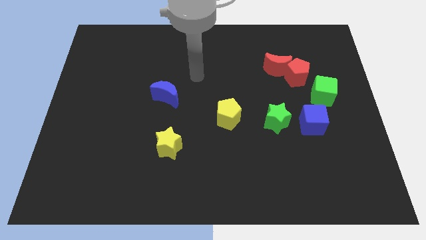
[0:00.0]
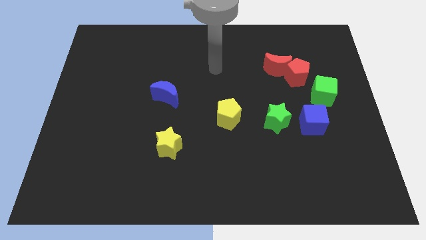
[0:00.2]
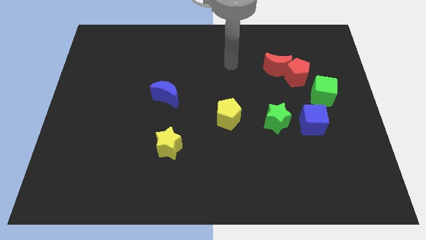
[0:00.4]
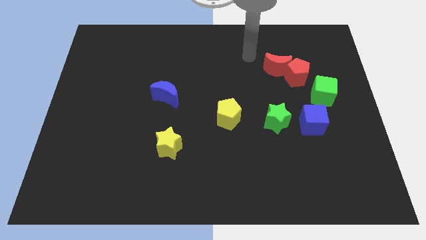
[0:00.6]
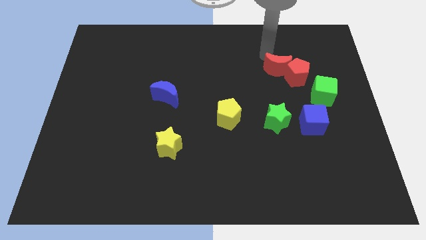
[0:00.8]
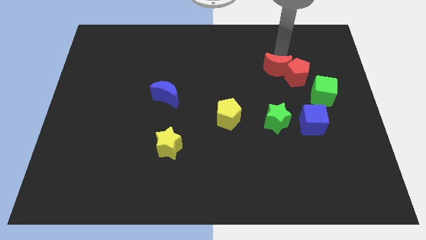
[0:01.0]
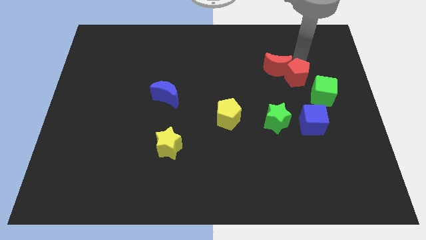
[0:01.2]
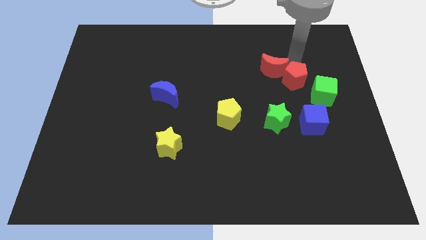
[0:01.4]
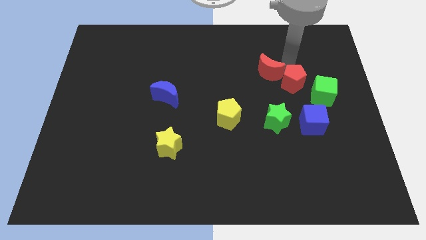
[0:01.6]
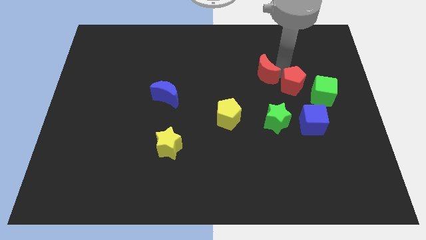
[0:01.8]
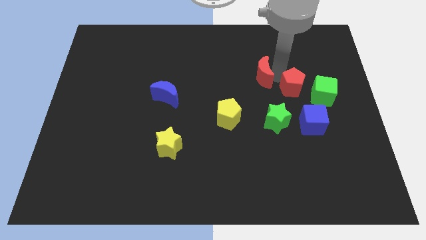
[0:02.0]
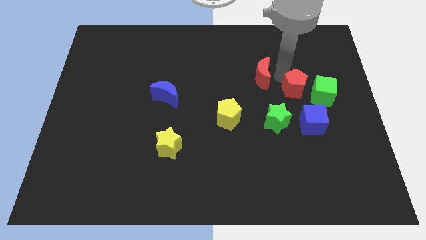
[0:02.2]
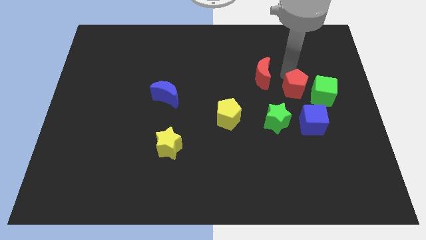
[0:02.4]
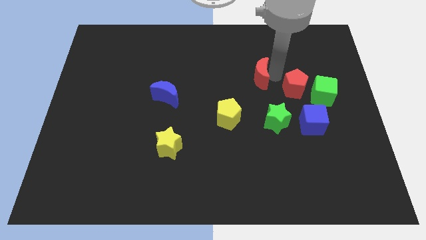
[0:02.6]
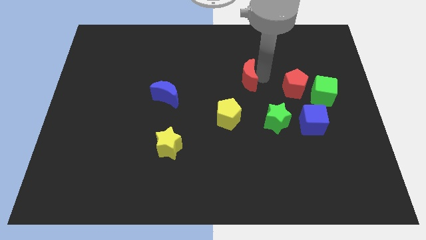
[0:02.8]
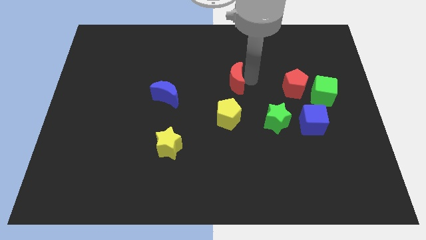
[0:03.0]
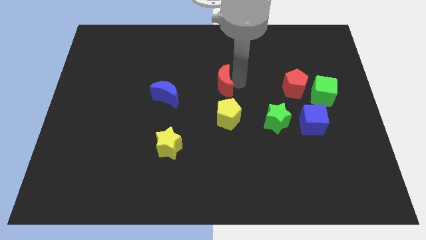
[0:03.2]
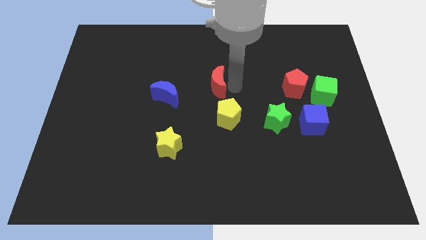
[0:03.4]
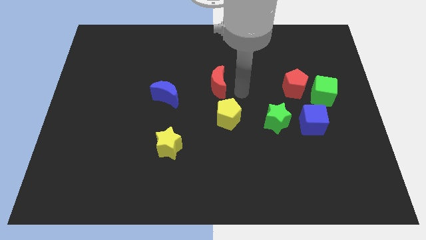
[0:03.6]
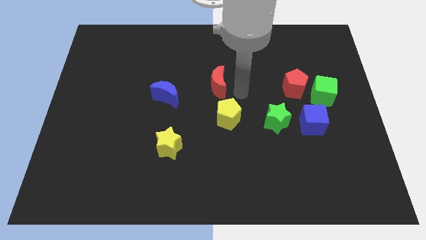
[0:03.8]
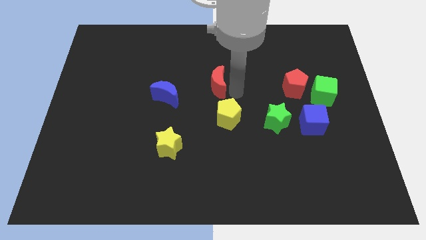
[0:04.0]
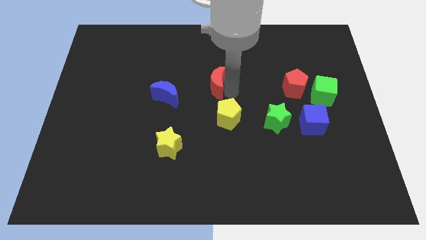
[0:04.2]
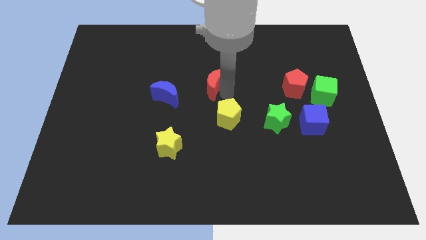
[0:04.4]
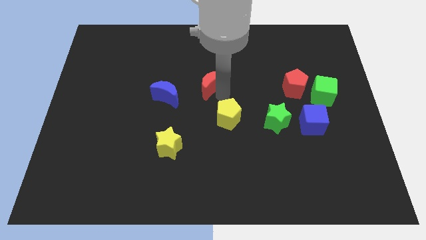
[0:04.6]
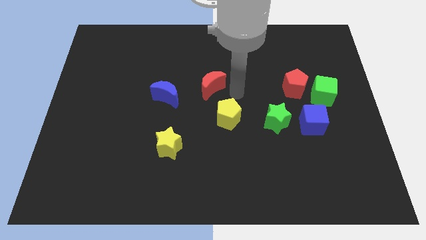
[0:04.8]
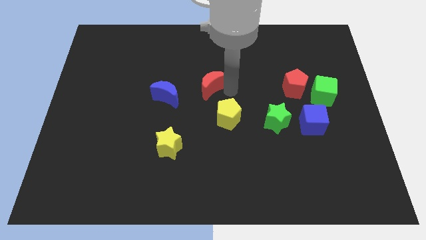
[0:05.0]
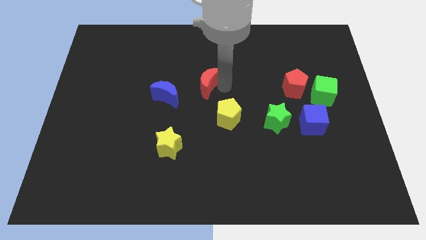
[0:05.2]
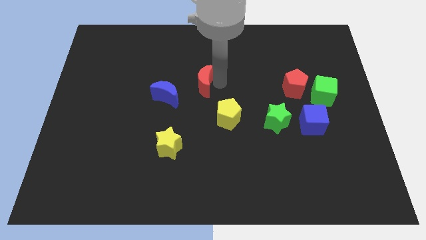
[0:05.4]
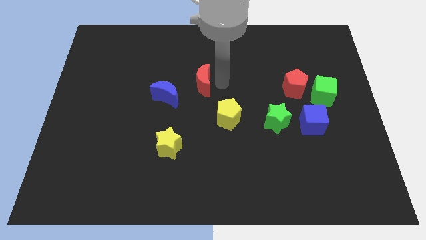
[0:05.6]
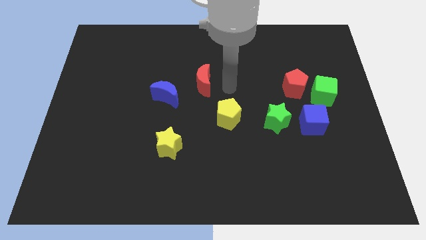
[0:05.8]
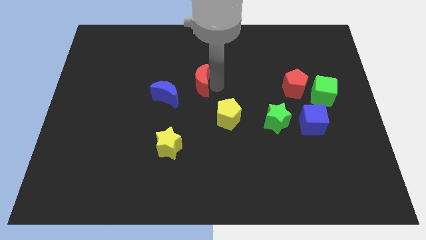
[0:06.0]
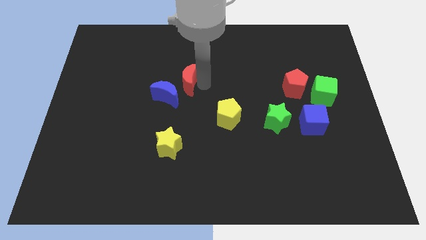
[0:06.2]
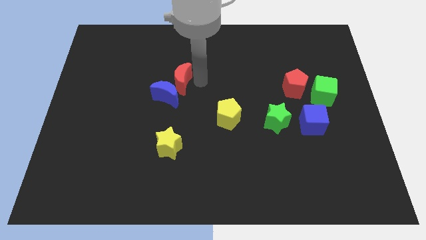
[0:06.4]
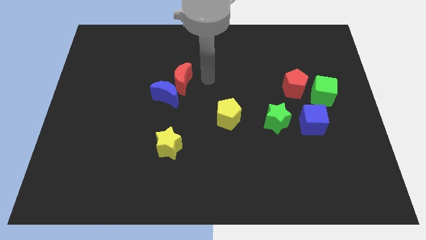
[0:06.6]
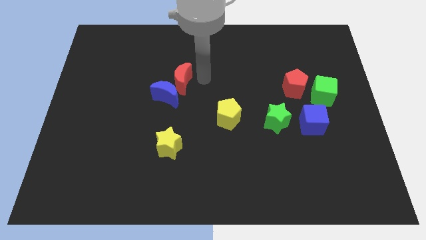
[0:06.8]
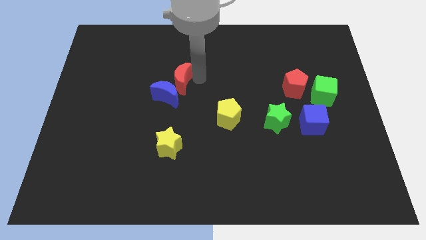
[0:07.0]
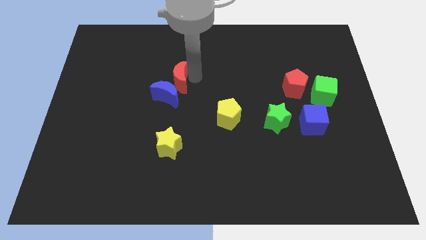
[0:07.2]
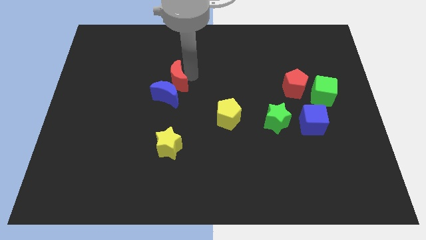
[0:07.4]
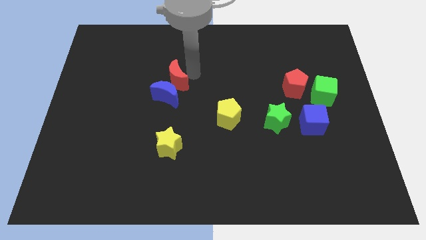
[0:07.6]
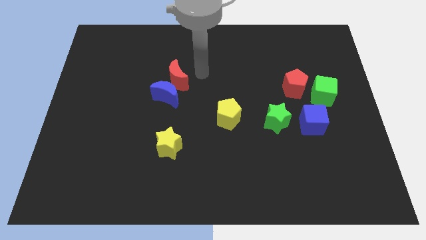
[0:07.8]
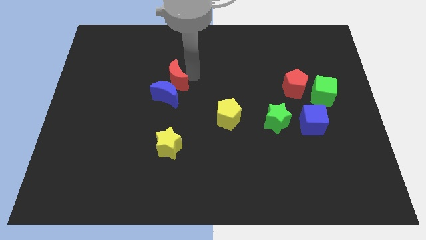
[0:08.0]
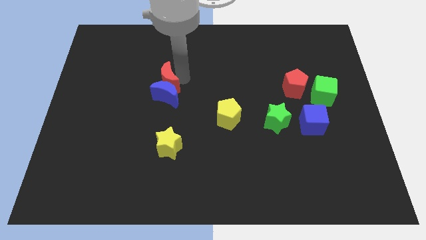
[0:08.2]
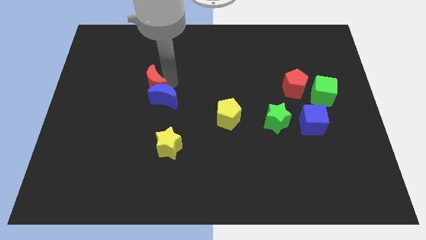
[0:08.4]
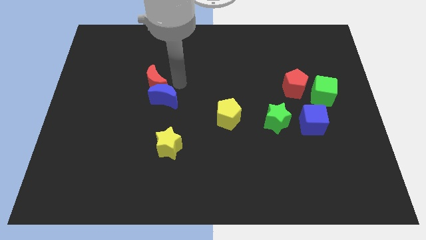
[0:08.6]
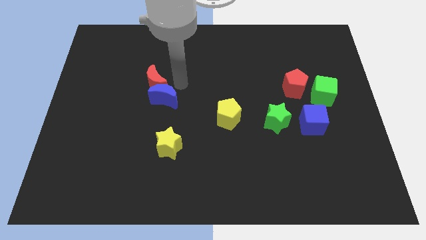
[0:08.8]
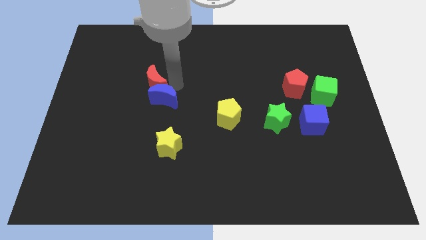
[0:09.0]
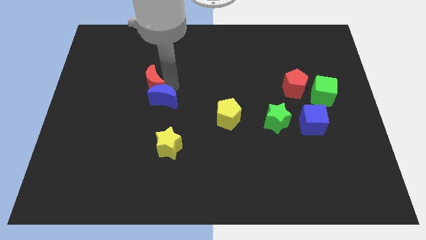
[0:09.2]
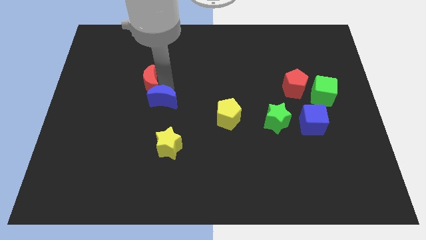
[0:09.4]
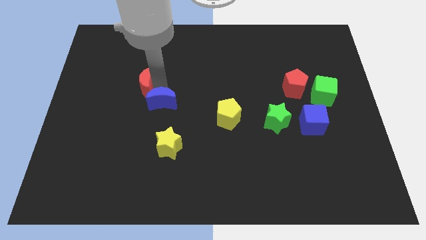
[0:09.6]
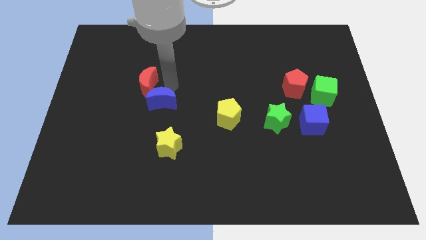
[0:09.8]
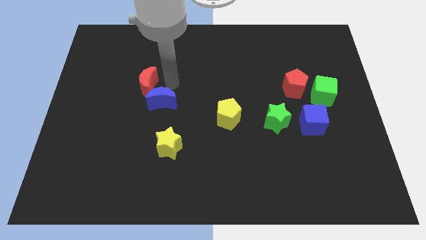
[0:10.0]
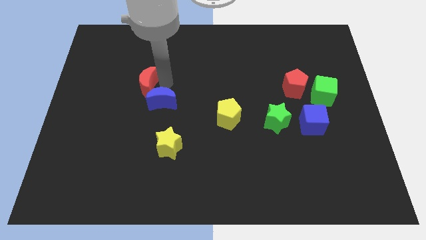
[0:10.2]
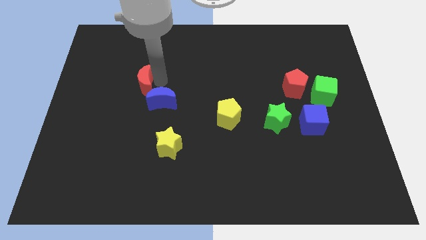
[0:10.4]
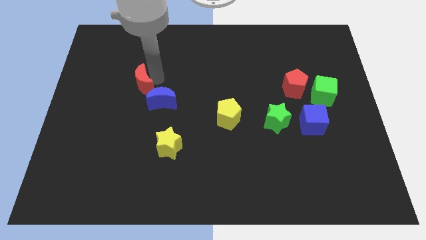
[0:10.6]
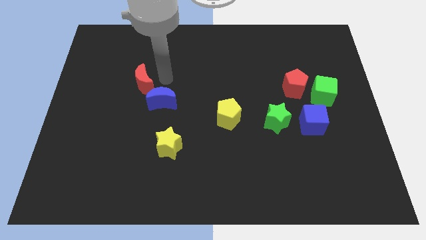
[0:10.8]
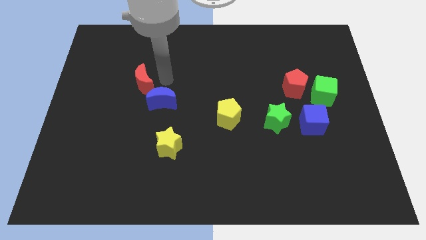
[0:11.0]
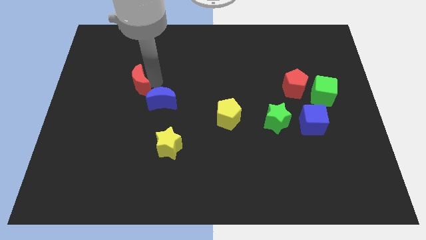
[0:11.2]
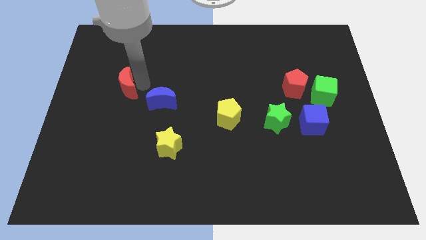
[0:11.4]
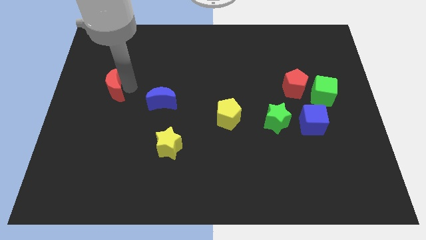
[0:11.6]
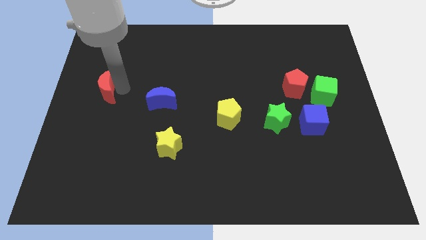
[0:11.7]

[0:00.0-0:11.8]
slide the red moon to the left side

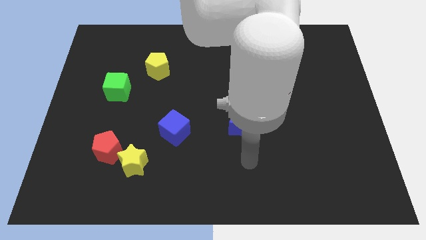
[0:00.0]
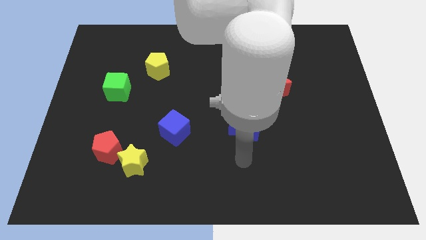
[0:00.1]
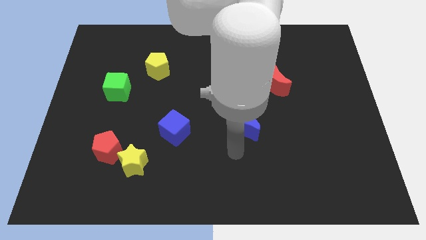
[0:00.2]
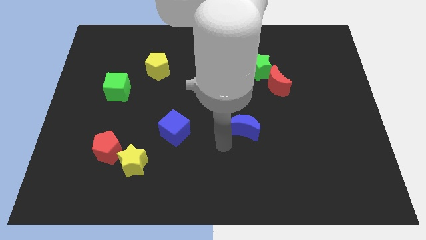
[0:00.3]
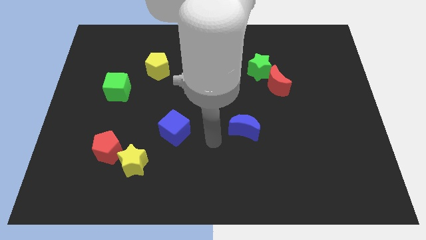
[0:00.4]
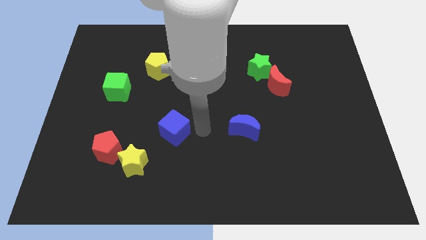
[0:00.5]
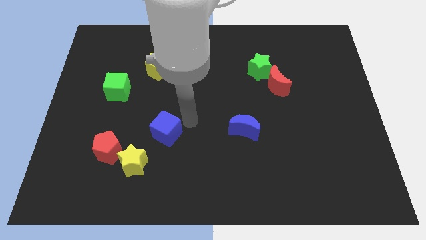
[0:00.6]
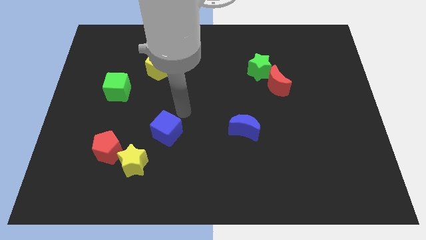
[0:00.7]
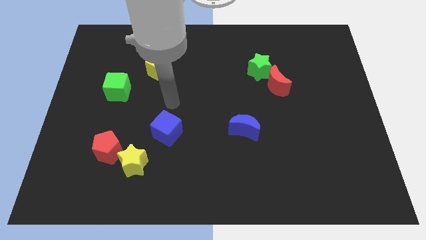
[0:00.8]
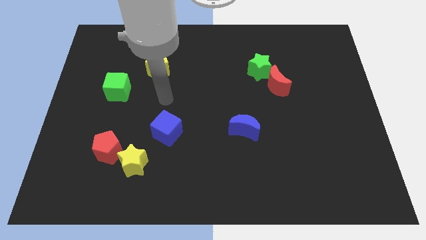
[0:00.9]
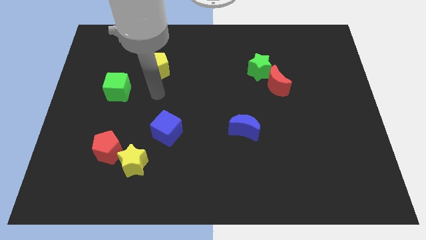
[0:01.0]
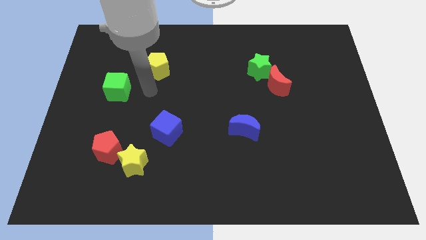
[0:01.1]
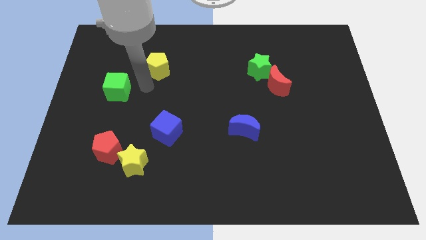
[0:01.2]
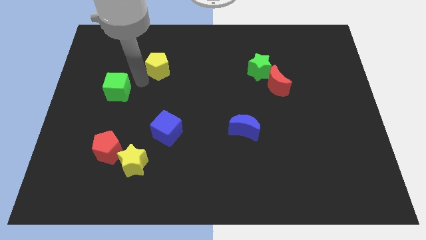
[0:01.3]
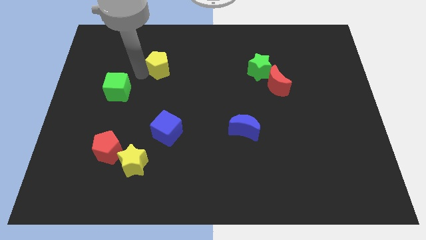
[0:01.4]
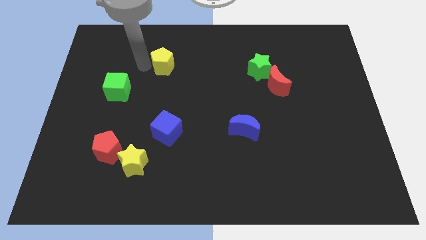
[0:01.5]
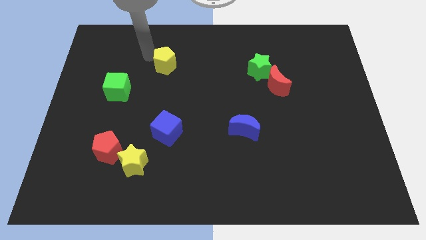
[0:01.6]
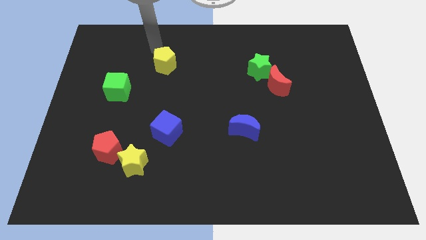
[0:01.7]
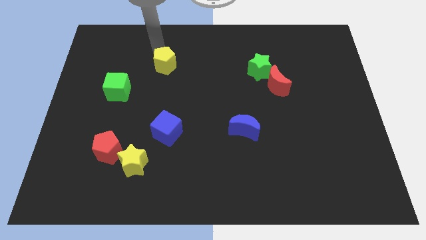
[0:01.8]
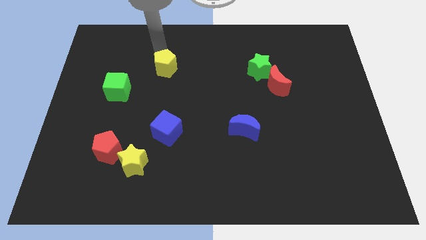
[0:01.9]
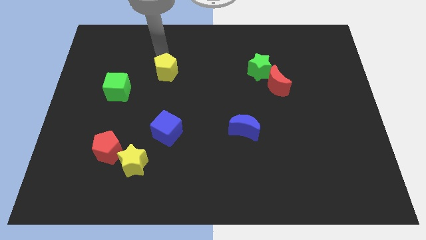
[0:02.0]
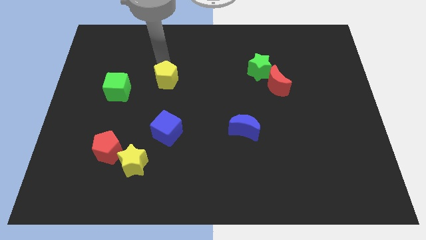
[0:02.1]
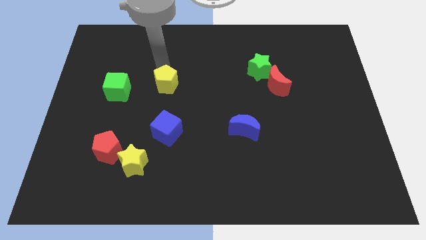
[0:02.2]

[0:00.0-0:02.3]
move the yellow pentagon to the middle
